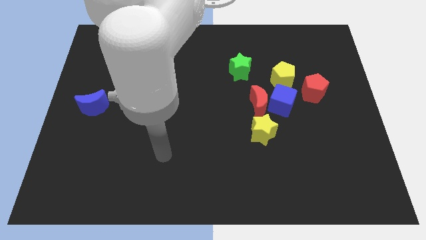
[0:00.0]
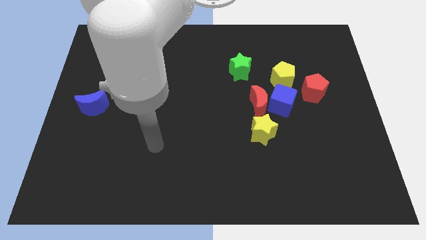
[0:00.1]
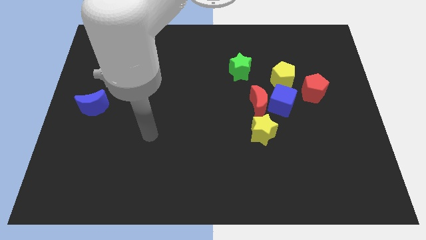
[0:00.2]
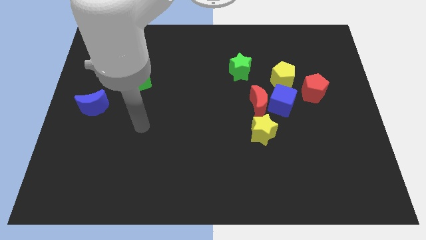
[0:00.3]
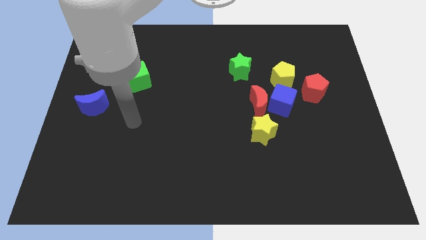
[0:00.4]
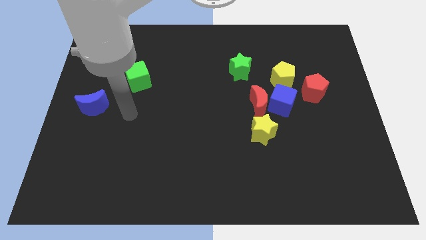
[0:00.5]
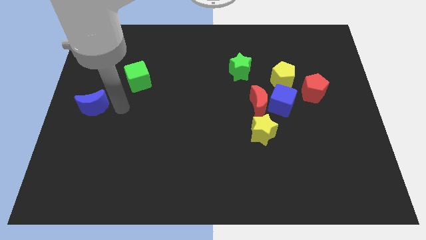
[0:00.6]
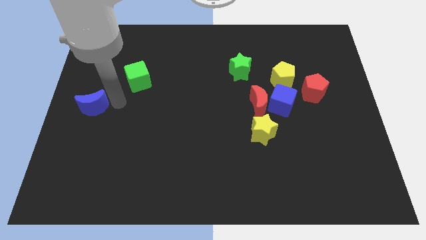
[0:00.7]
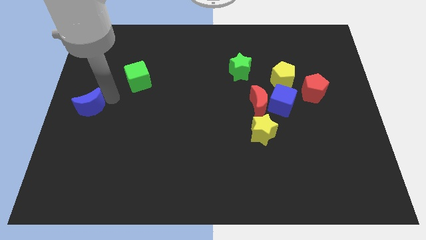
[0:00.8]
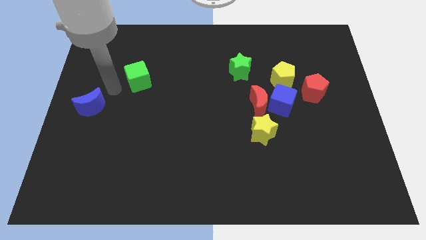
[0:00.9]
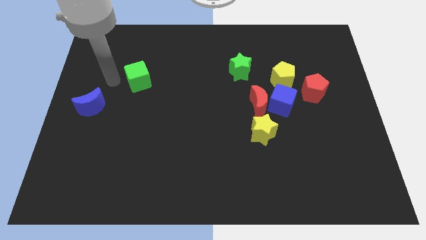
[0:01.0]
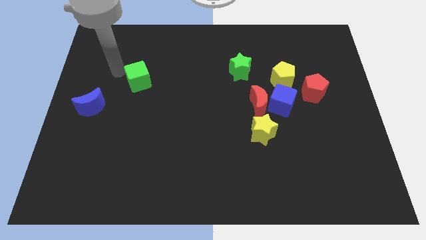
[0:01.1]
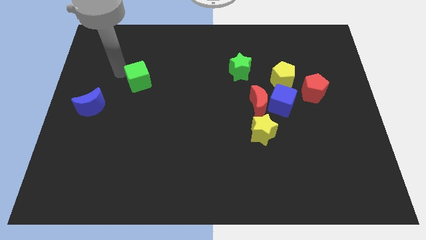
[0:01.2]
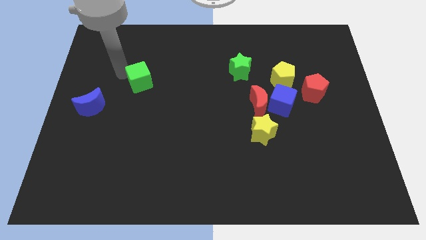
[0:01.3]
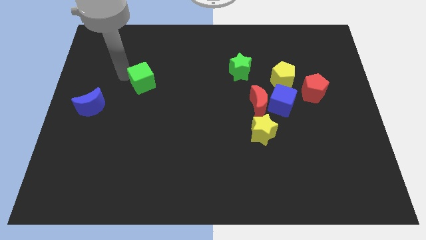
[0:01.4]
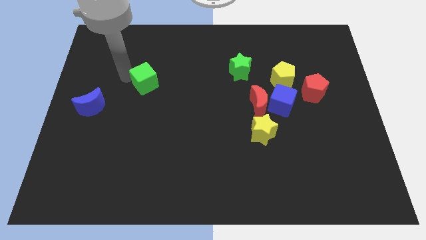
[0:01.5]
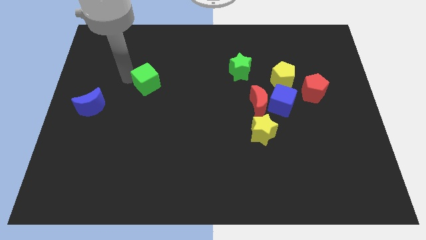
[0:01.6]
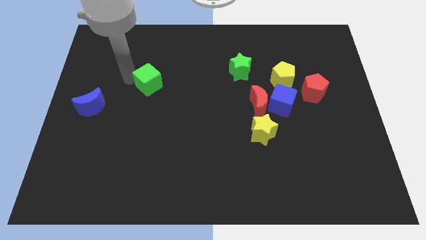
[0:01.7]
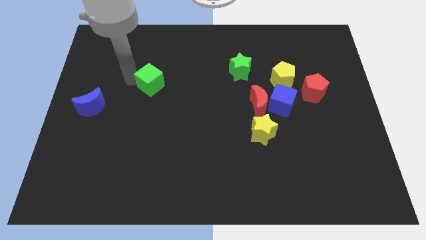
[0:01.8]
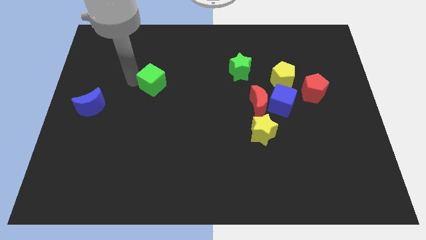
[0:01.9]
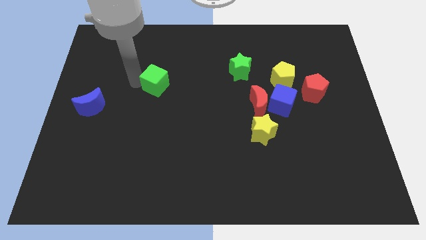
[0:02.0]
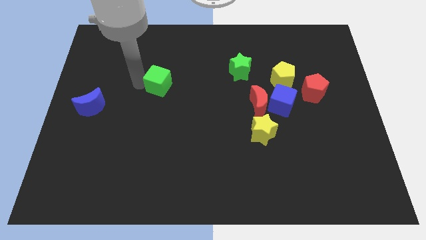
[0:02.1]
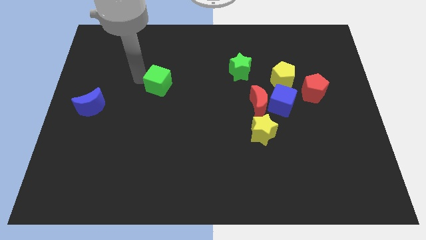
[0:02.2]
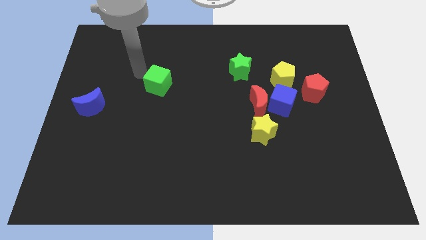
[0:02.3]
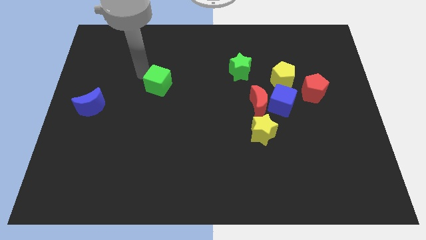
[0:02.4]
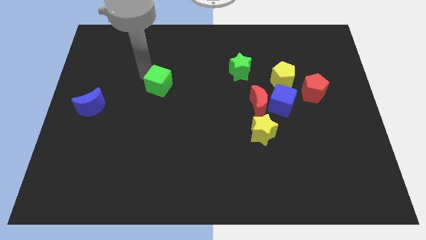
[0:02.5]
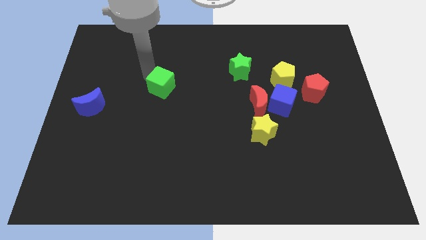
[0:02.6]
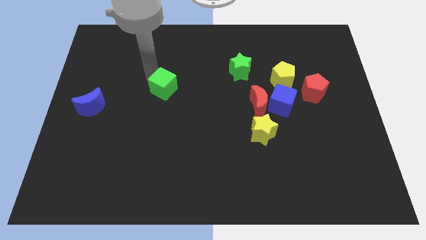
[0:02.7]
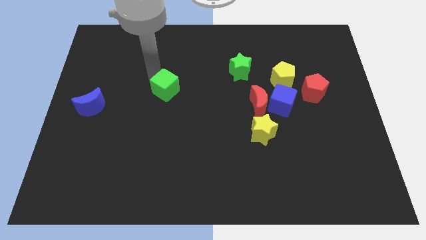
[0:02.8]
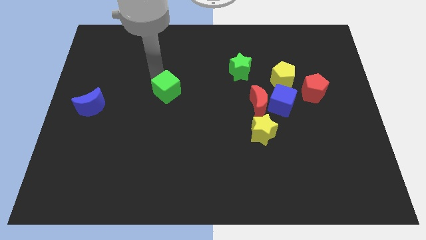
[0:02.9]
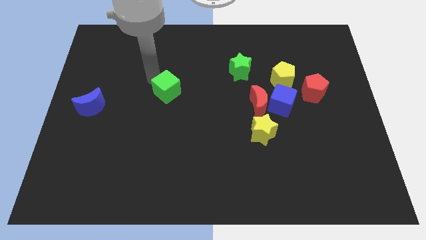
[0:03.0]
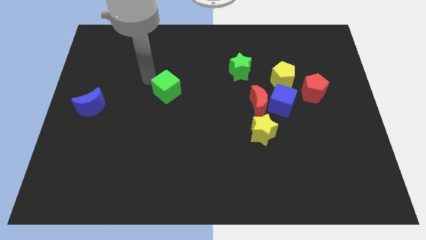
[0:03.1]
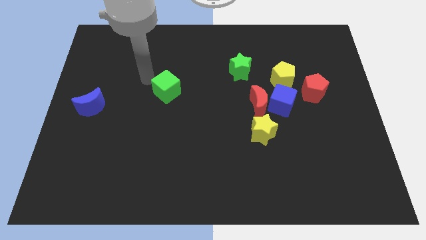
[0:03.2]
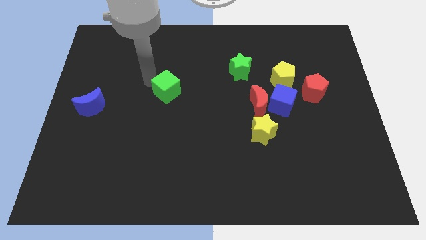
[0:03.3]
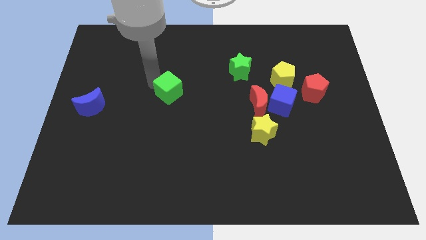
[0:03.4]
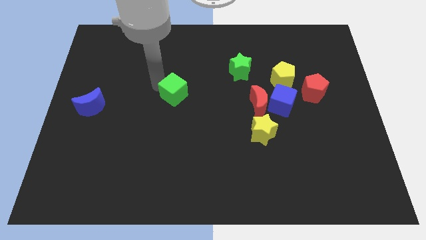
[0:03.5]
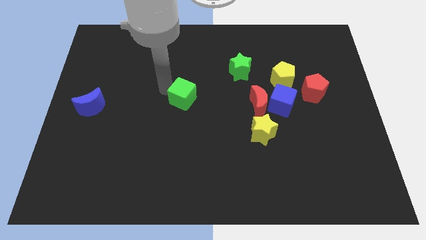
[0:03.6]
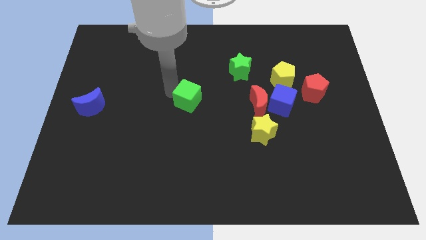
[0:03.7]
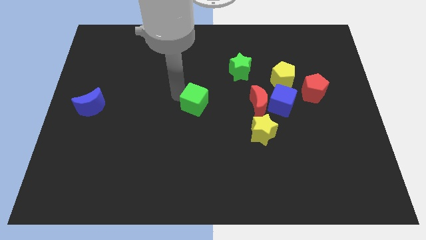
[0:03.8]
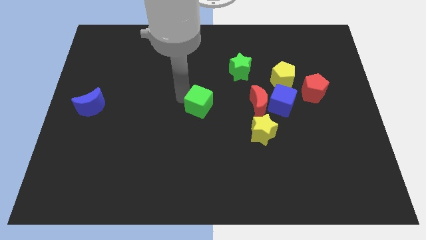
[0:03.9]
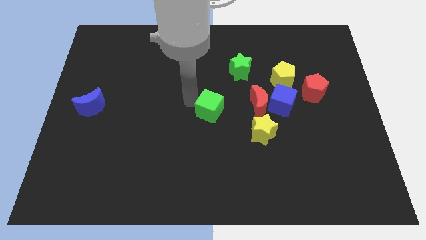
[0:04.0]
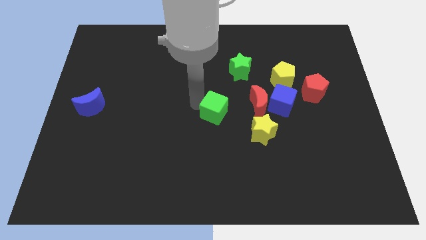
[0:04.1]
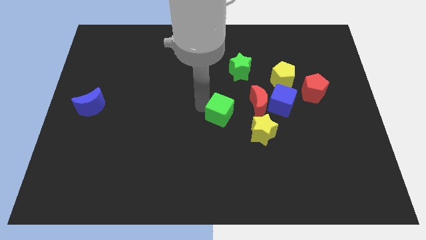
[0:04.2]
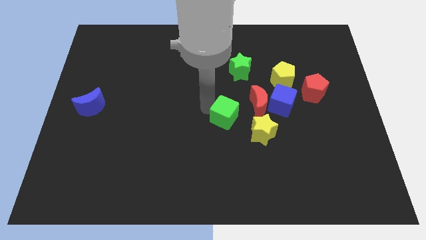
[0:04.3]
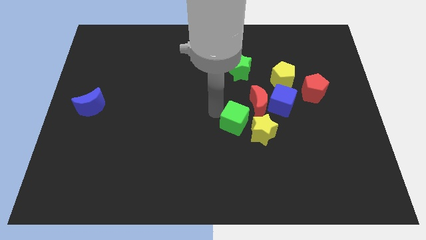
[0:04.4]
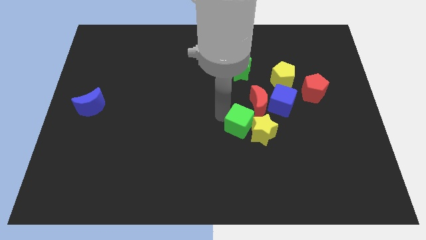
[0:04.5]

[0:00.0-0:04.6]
push the green cube next to the yellow star

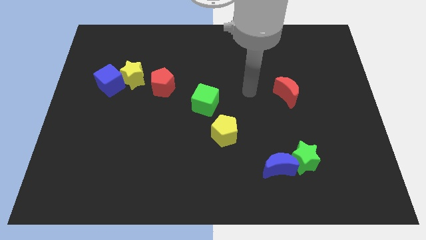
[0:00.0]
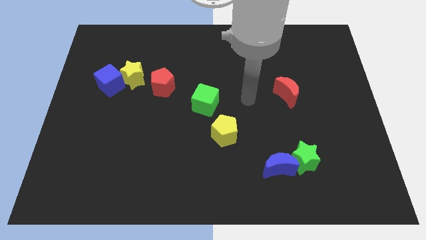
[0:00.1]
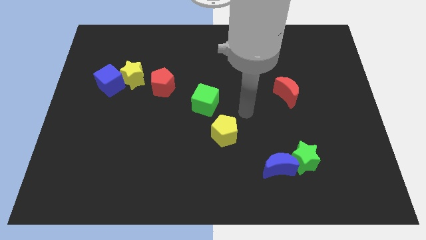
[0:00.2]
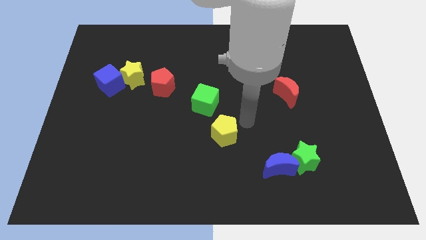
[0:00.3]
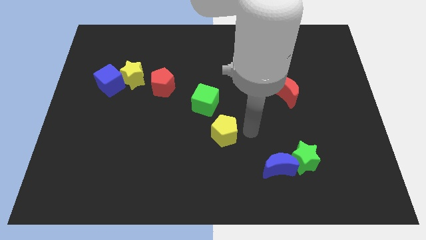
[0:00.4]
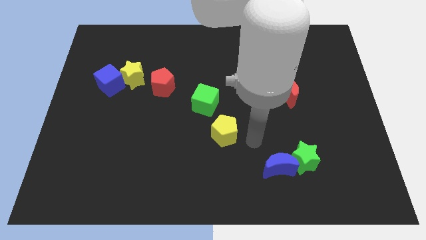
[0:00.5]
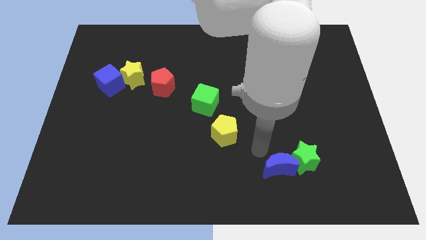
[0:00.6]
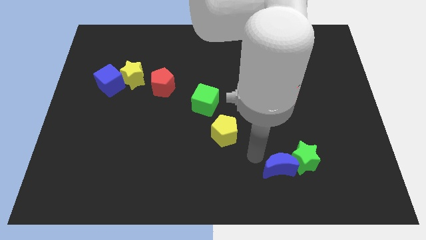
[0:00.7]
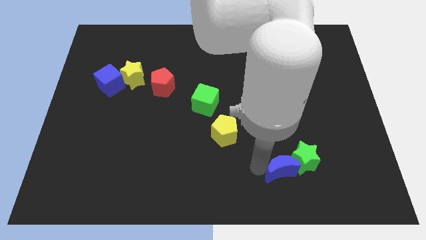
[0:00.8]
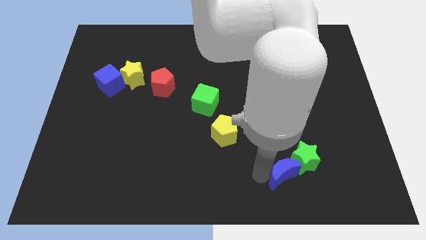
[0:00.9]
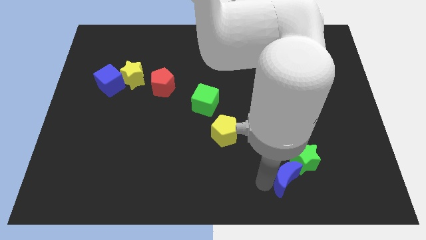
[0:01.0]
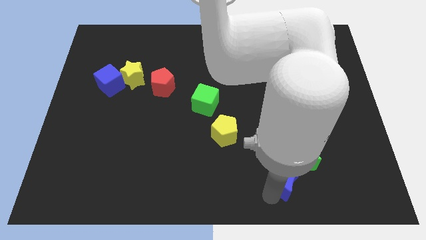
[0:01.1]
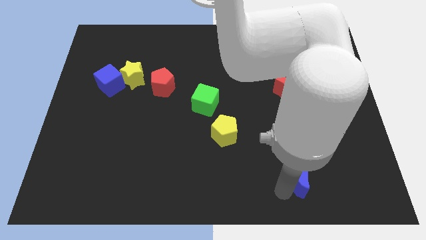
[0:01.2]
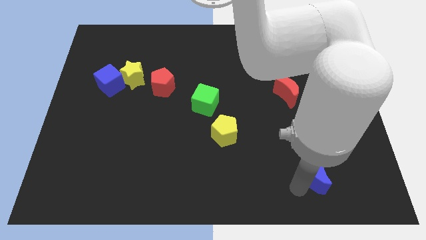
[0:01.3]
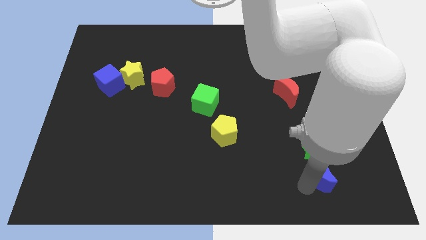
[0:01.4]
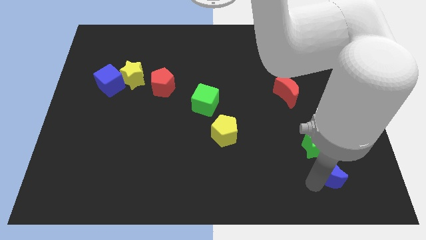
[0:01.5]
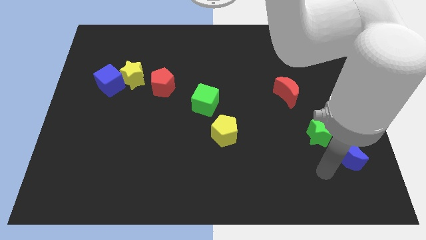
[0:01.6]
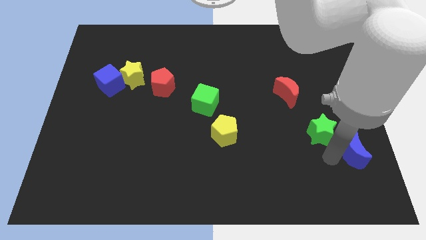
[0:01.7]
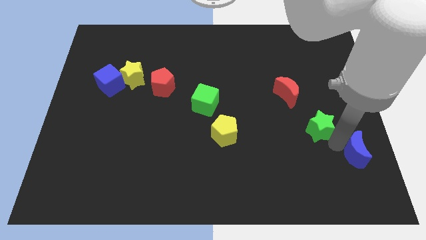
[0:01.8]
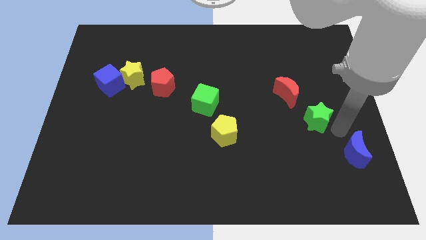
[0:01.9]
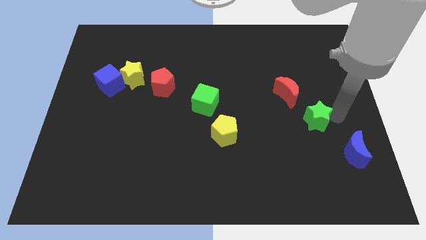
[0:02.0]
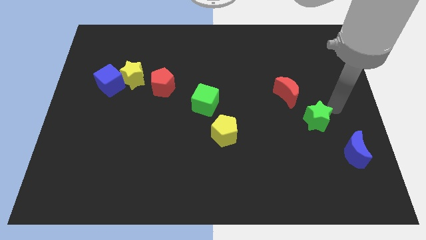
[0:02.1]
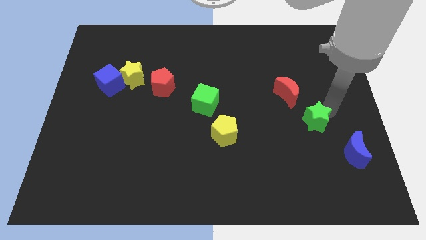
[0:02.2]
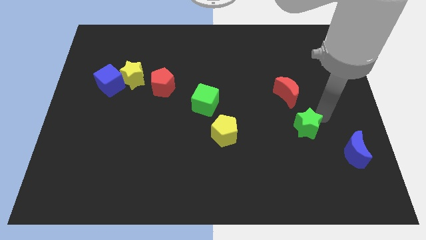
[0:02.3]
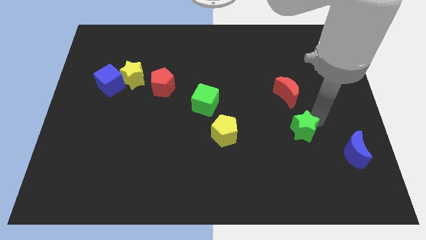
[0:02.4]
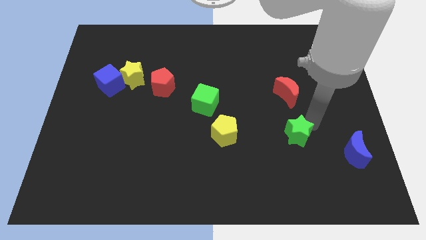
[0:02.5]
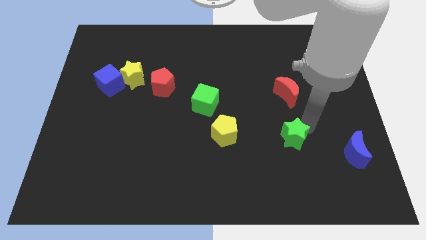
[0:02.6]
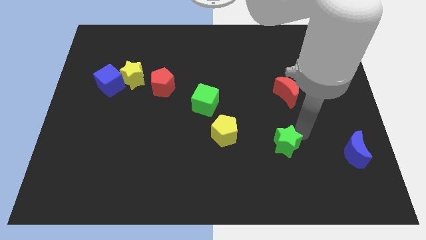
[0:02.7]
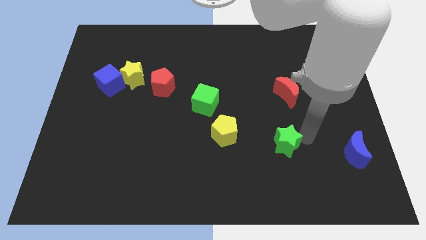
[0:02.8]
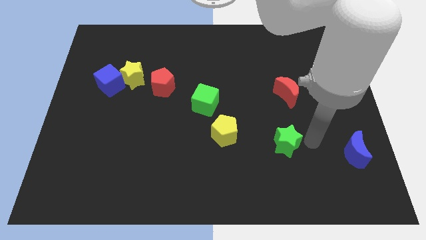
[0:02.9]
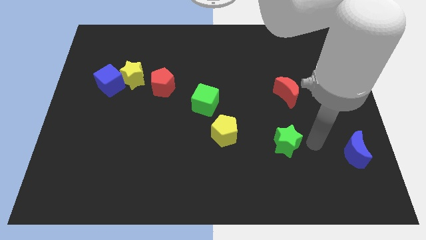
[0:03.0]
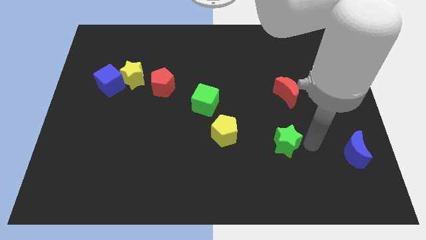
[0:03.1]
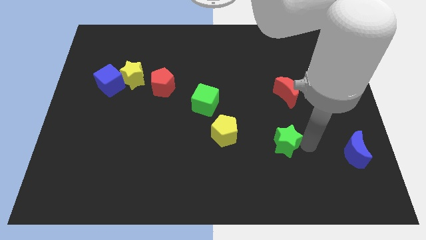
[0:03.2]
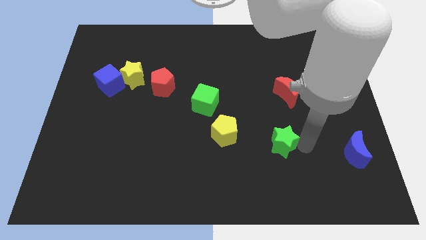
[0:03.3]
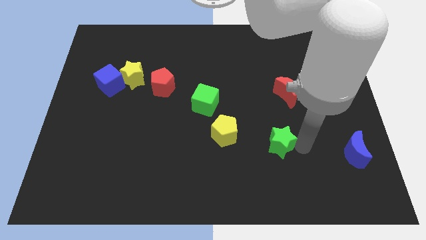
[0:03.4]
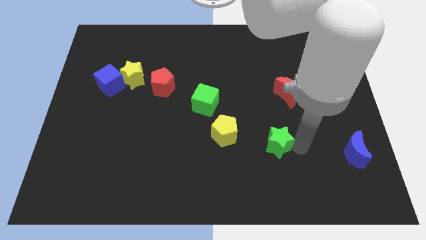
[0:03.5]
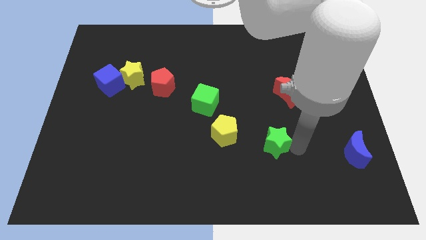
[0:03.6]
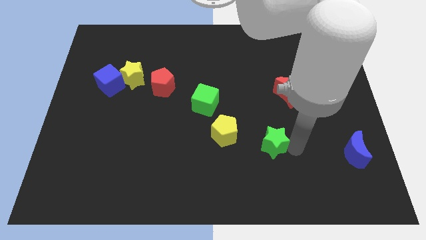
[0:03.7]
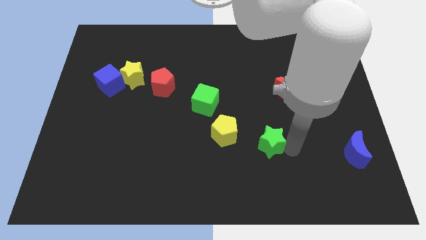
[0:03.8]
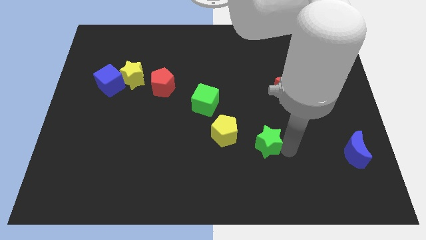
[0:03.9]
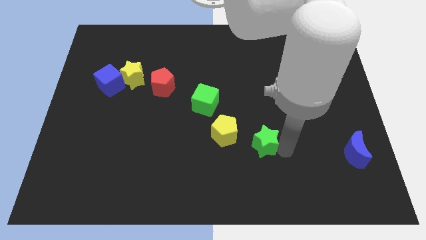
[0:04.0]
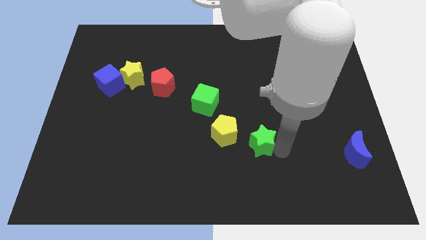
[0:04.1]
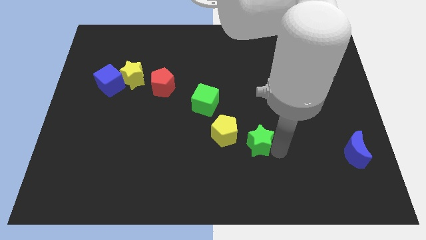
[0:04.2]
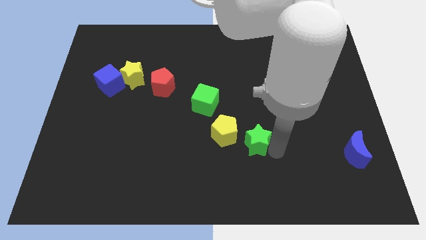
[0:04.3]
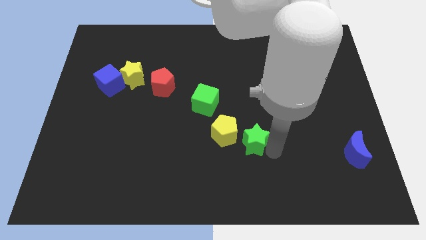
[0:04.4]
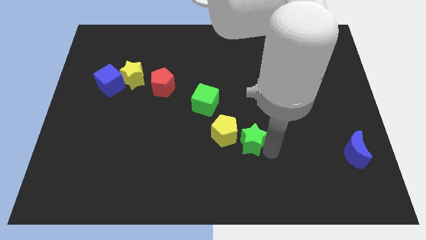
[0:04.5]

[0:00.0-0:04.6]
put the green star towards the yellow pentagon
